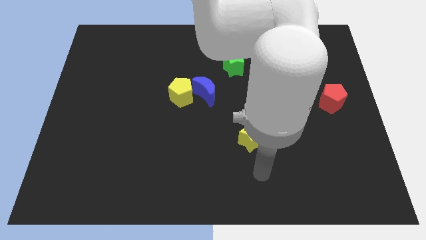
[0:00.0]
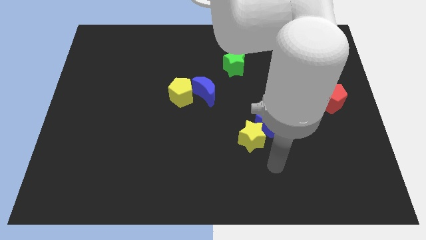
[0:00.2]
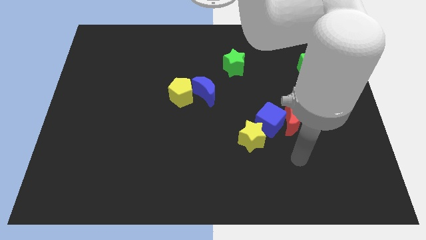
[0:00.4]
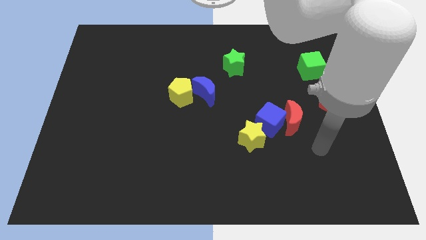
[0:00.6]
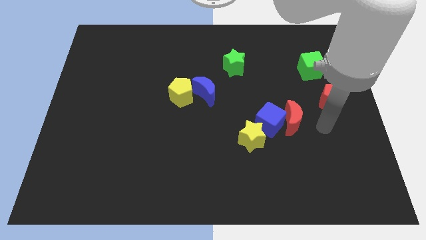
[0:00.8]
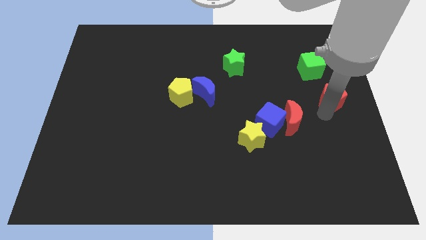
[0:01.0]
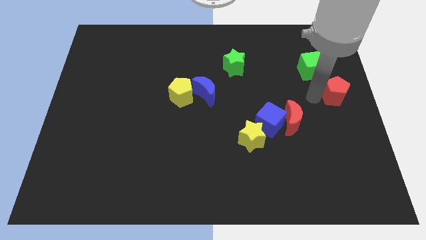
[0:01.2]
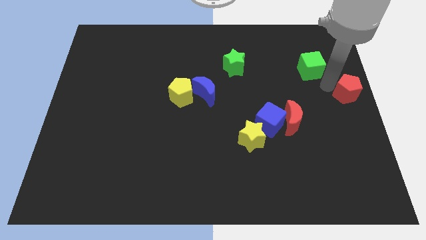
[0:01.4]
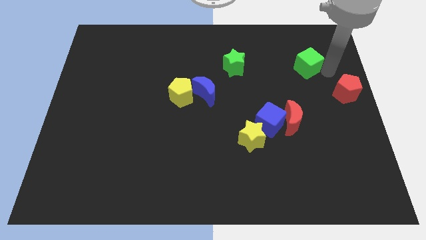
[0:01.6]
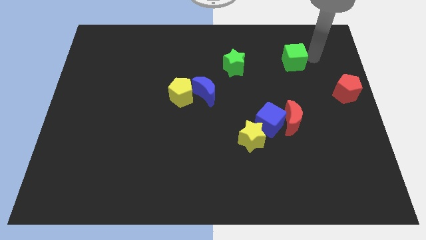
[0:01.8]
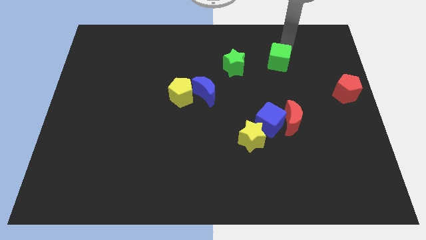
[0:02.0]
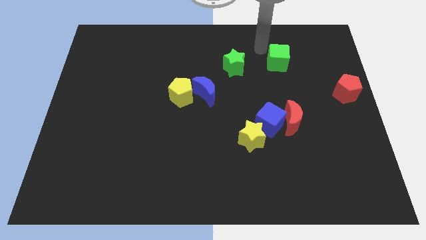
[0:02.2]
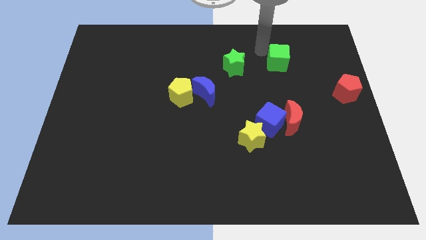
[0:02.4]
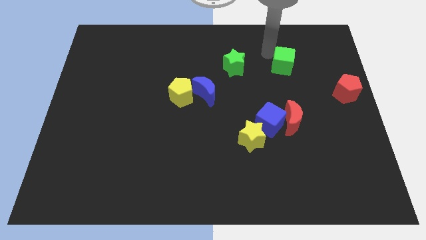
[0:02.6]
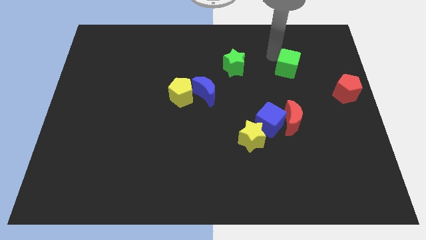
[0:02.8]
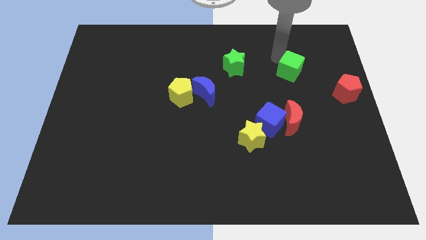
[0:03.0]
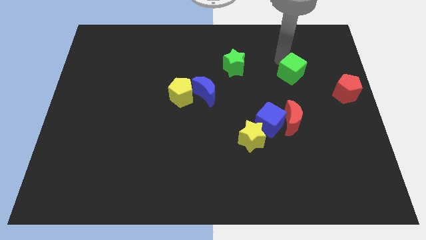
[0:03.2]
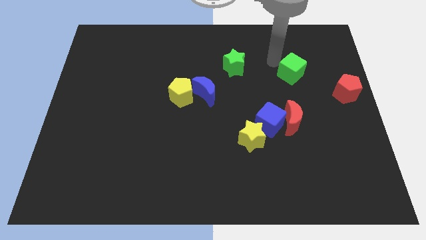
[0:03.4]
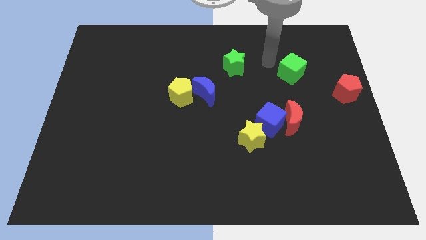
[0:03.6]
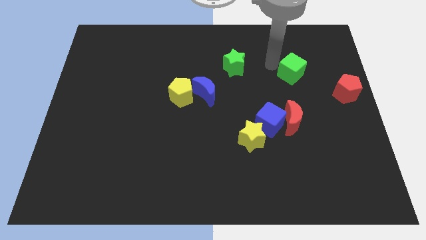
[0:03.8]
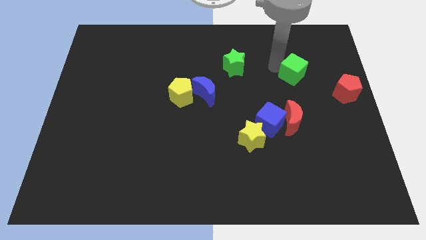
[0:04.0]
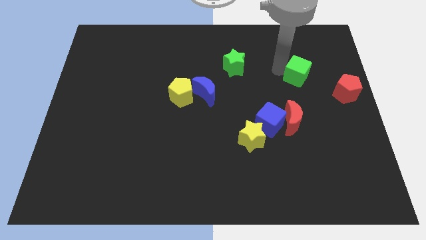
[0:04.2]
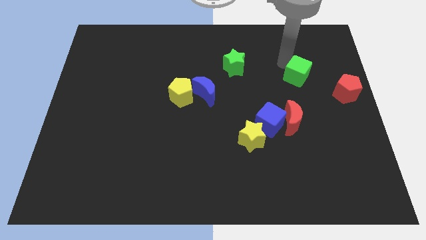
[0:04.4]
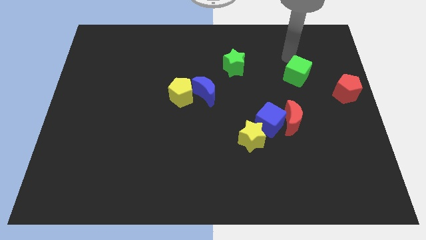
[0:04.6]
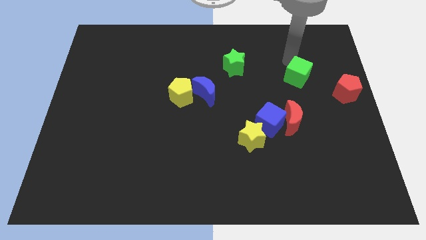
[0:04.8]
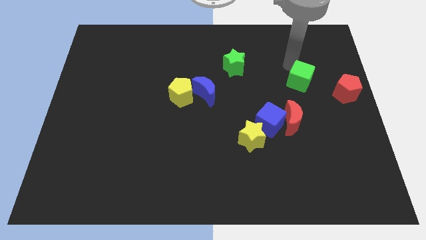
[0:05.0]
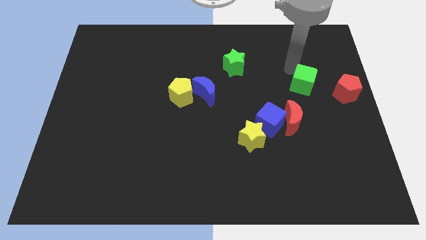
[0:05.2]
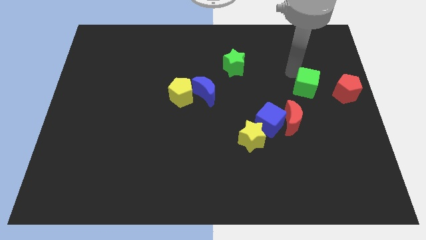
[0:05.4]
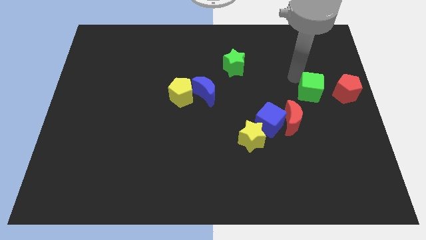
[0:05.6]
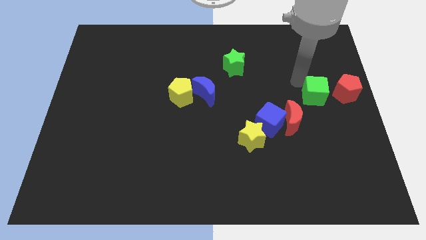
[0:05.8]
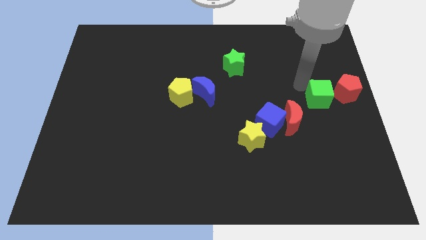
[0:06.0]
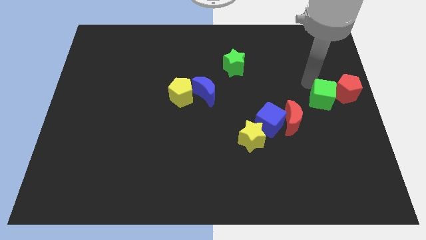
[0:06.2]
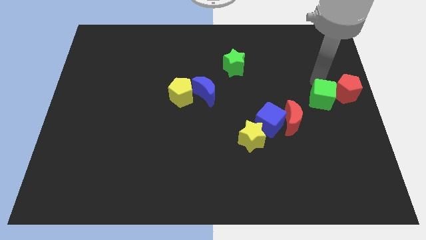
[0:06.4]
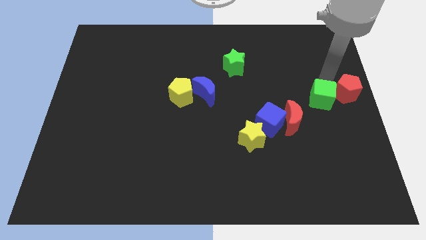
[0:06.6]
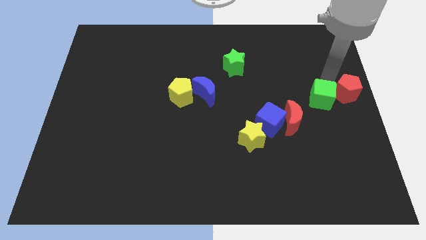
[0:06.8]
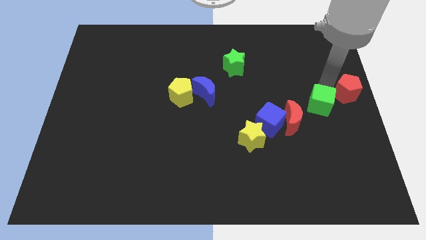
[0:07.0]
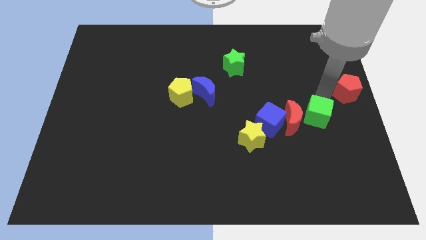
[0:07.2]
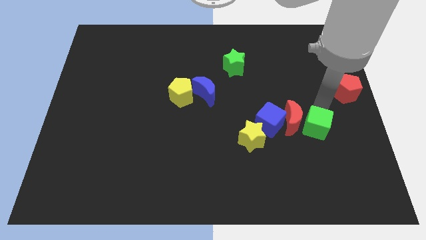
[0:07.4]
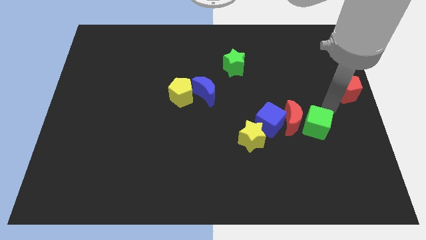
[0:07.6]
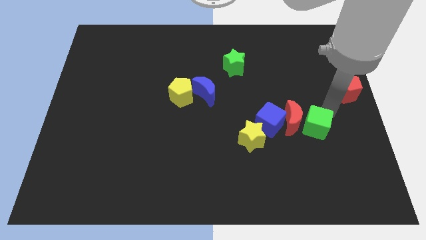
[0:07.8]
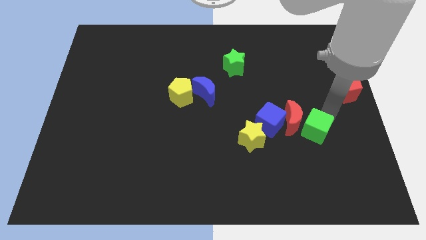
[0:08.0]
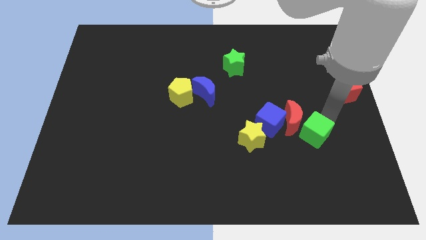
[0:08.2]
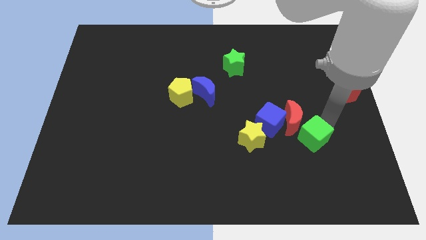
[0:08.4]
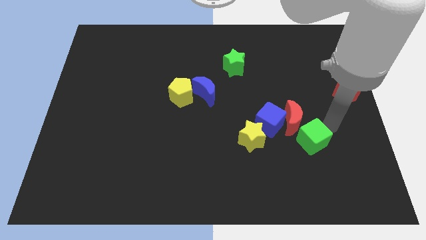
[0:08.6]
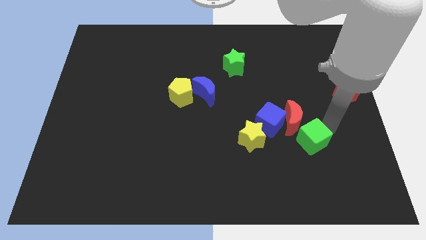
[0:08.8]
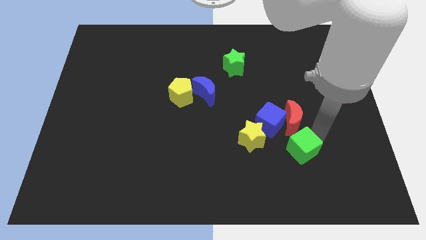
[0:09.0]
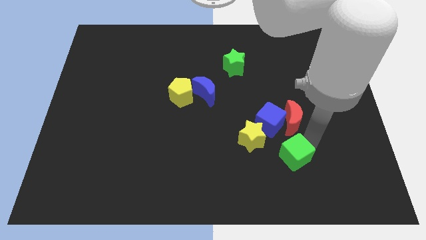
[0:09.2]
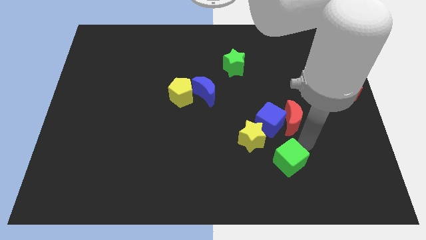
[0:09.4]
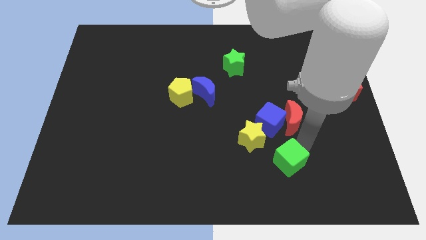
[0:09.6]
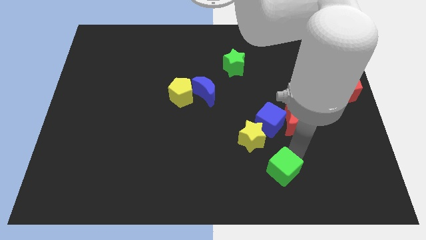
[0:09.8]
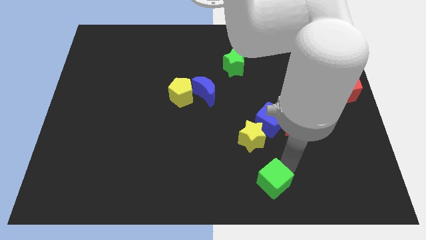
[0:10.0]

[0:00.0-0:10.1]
put the green cube to the bottom side
